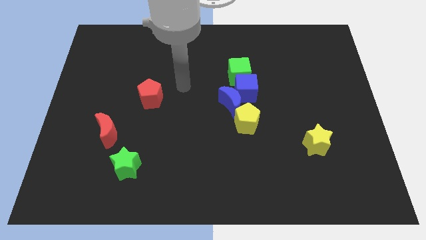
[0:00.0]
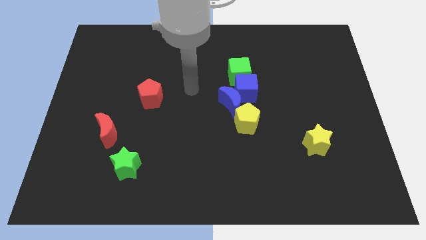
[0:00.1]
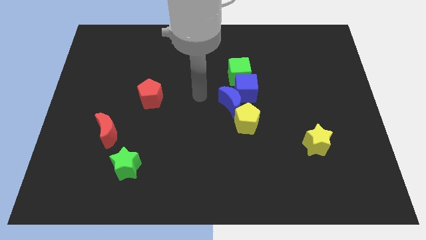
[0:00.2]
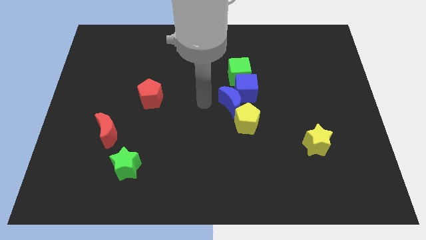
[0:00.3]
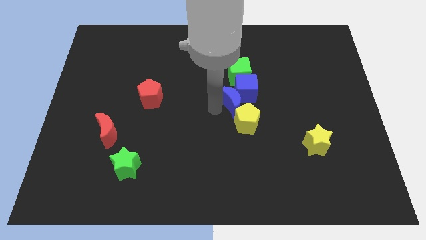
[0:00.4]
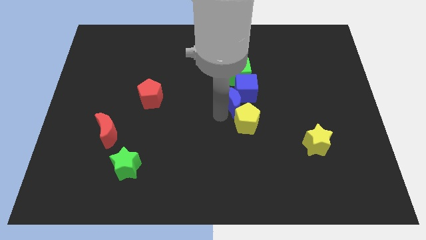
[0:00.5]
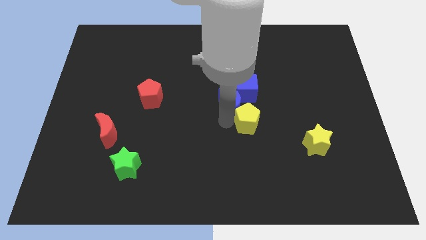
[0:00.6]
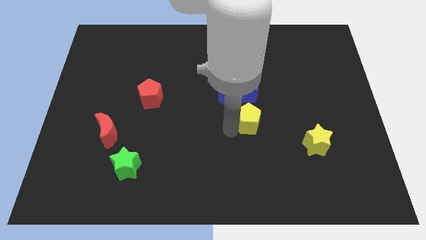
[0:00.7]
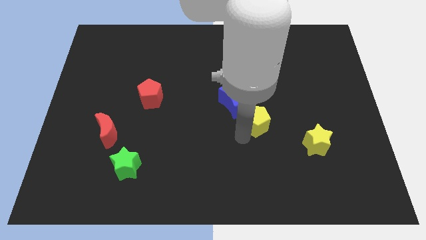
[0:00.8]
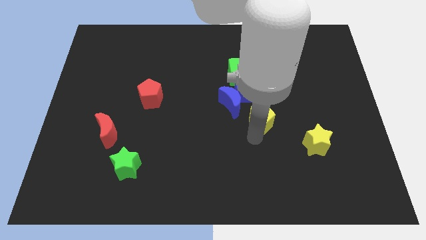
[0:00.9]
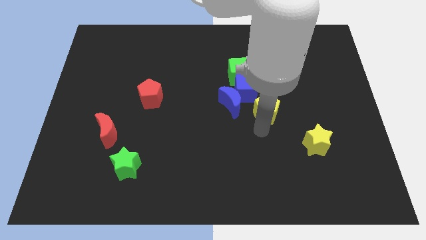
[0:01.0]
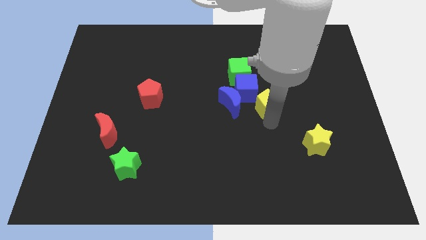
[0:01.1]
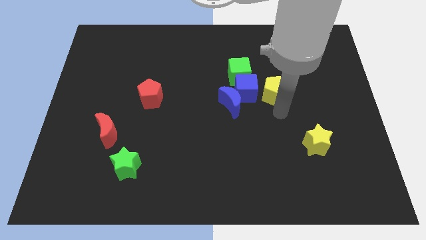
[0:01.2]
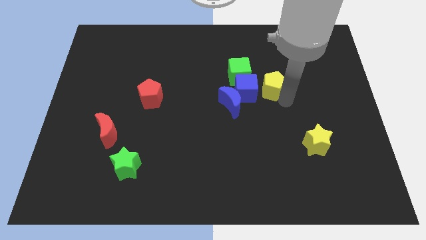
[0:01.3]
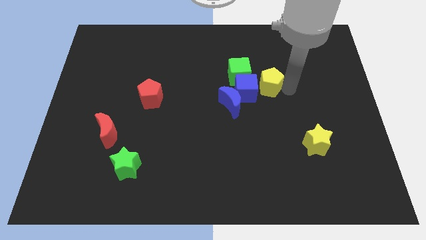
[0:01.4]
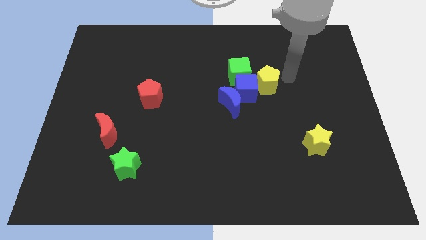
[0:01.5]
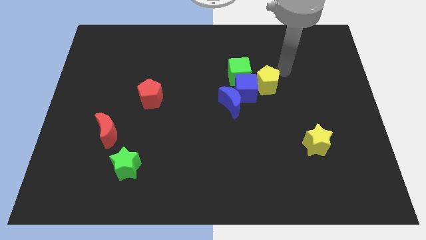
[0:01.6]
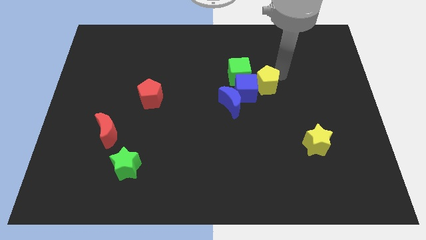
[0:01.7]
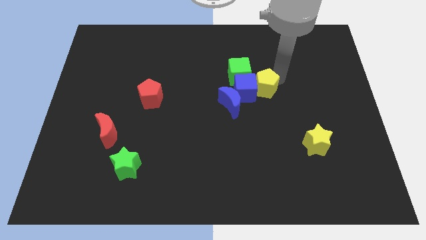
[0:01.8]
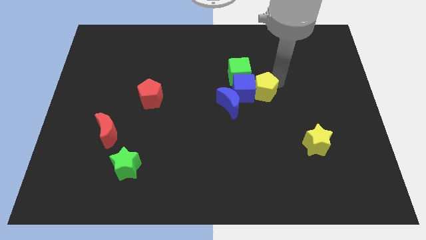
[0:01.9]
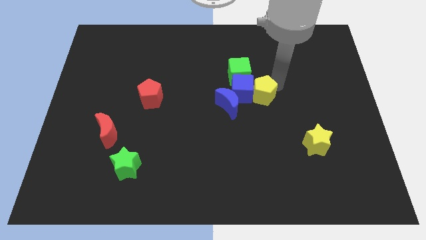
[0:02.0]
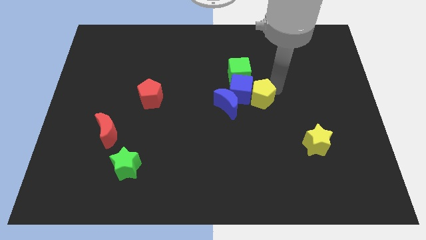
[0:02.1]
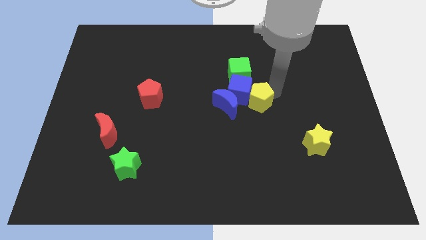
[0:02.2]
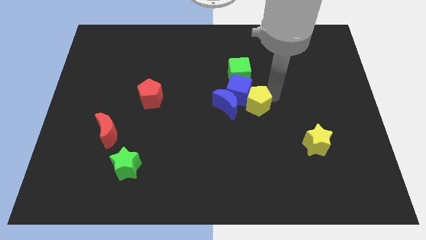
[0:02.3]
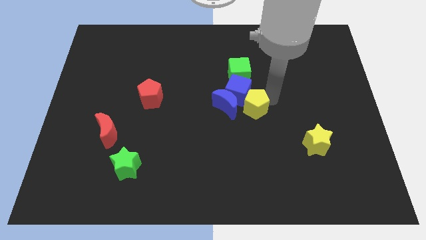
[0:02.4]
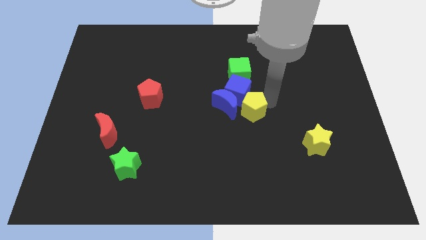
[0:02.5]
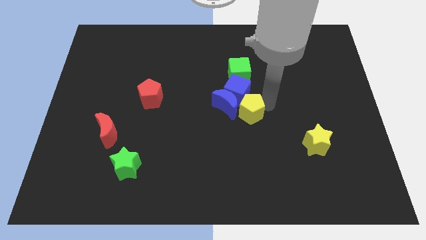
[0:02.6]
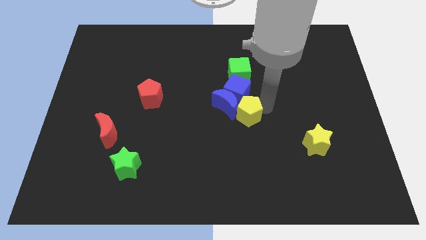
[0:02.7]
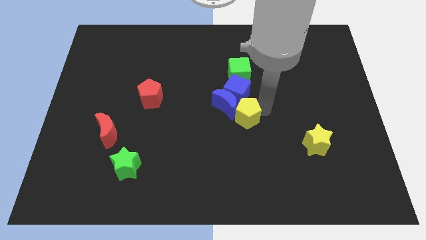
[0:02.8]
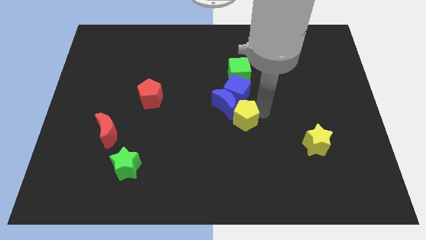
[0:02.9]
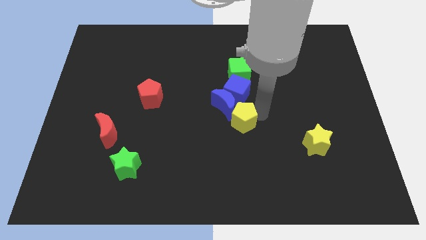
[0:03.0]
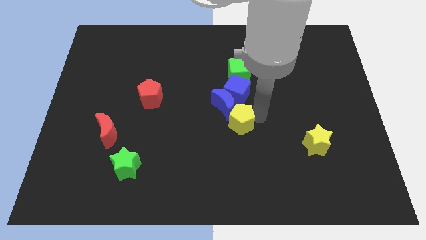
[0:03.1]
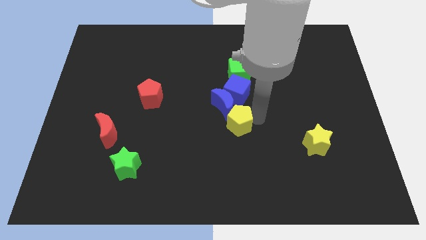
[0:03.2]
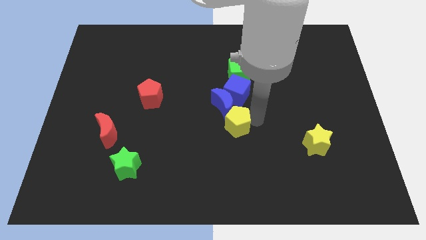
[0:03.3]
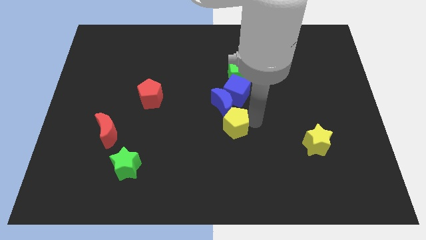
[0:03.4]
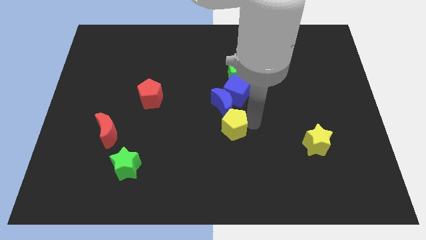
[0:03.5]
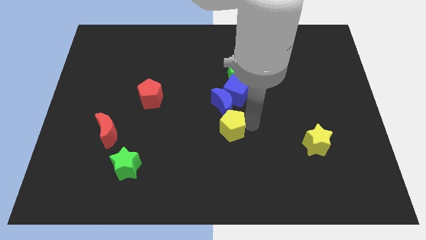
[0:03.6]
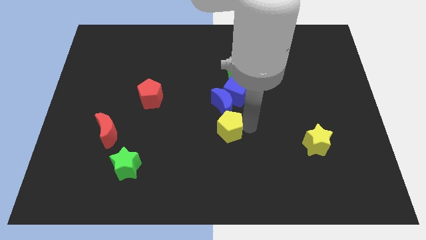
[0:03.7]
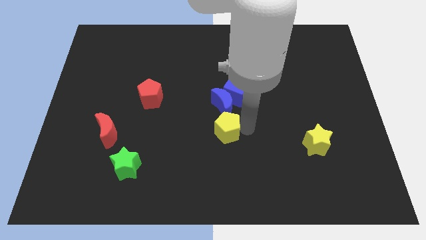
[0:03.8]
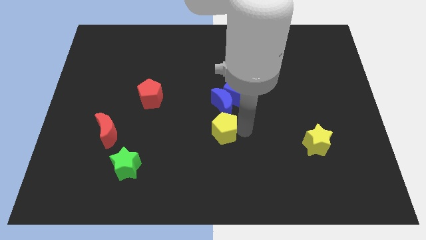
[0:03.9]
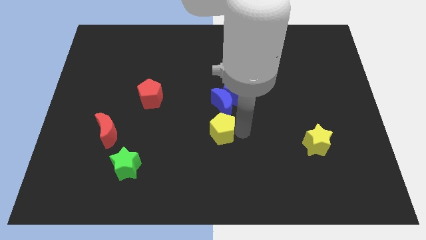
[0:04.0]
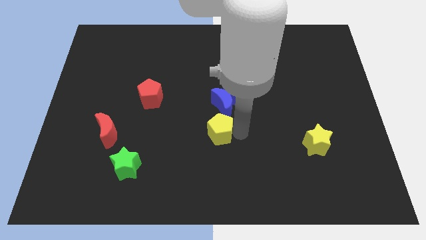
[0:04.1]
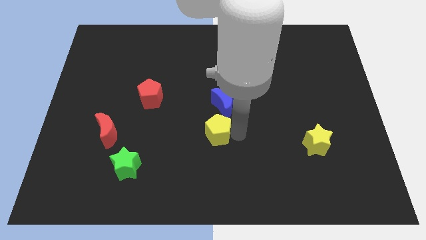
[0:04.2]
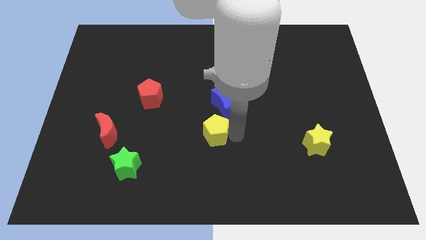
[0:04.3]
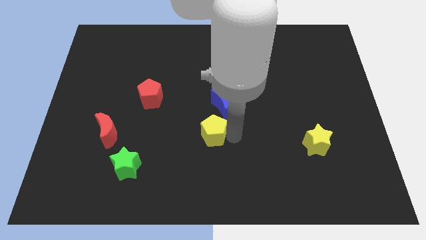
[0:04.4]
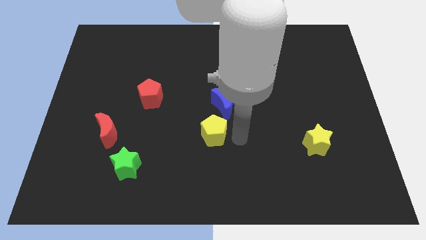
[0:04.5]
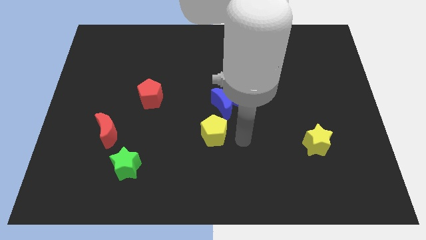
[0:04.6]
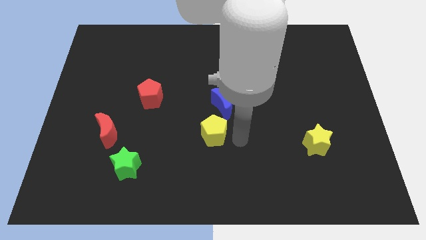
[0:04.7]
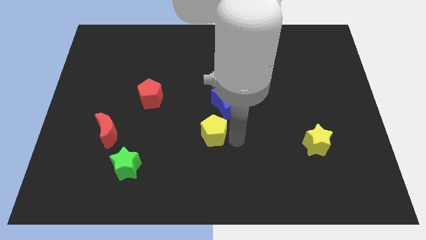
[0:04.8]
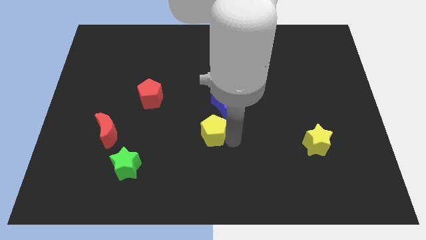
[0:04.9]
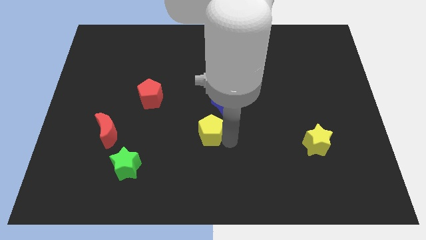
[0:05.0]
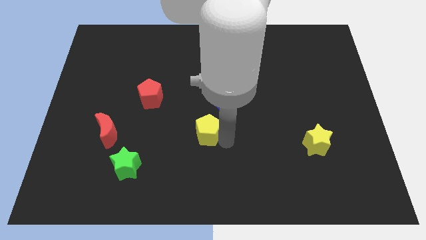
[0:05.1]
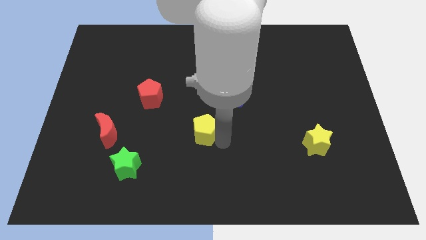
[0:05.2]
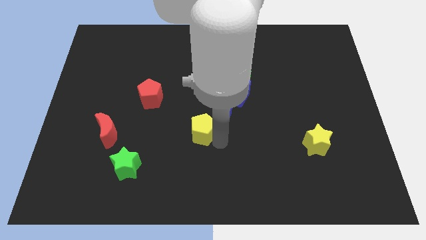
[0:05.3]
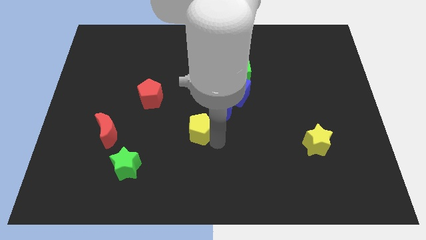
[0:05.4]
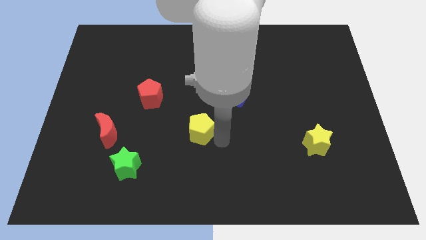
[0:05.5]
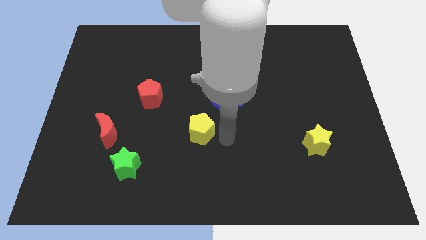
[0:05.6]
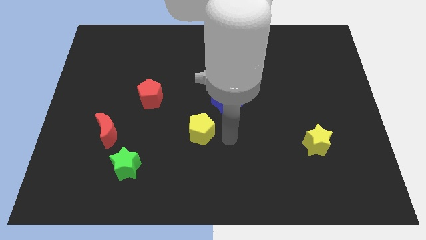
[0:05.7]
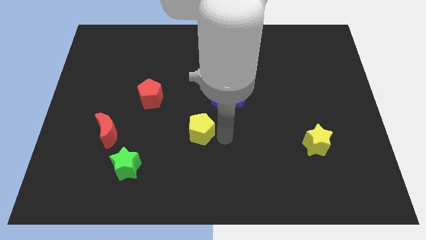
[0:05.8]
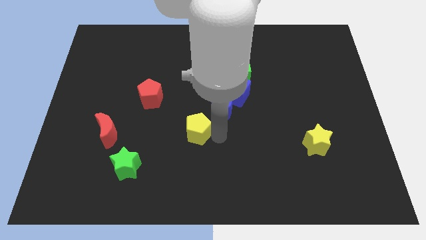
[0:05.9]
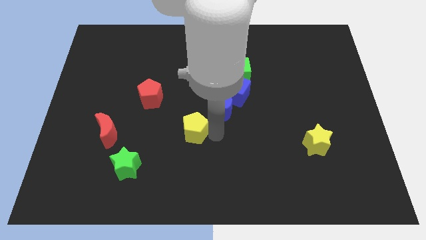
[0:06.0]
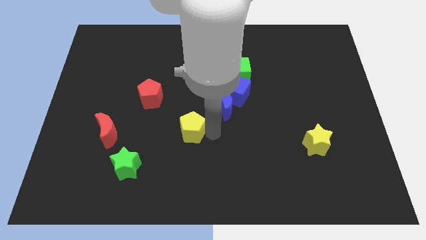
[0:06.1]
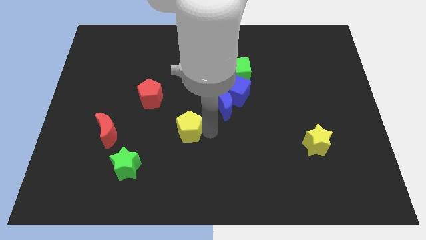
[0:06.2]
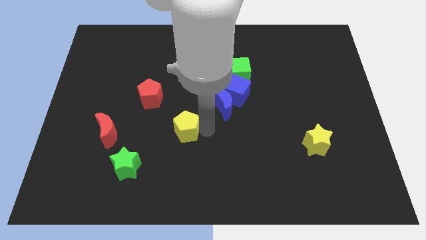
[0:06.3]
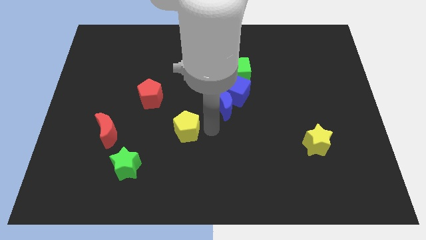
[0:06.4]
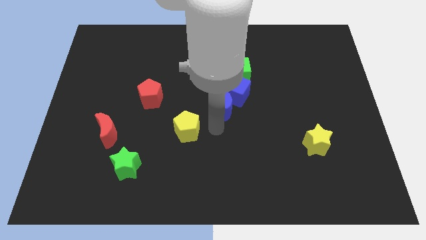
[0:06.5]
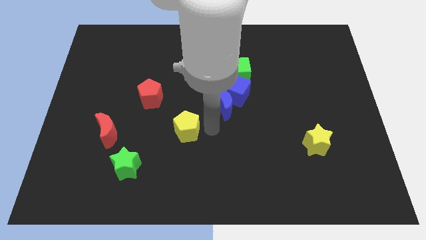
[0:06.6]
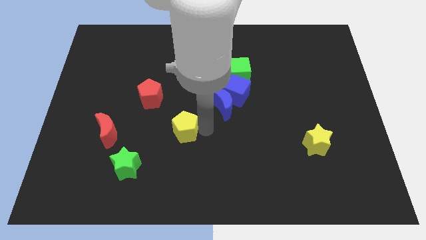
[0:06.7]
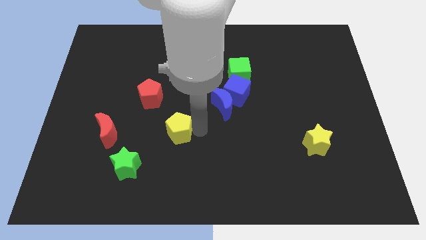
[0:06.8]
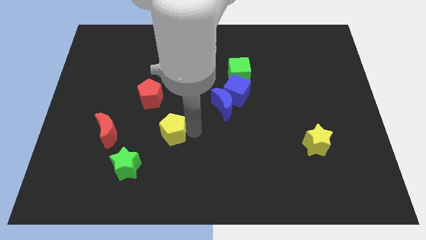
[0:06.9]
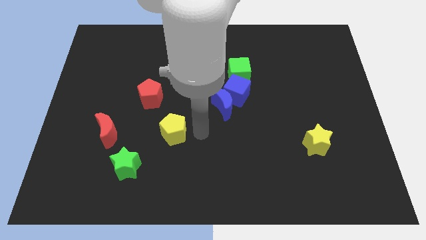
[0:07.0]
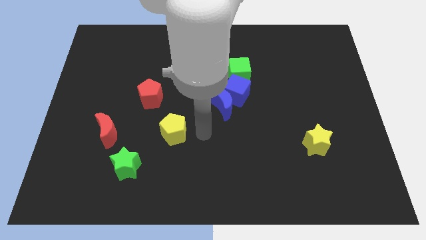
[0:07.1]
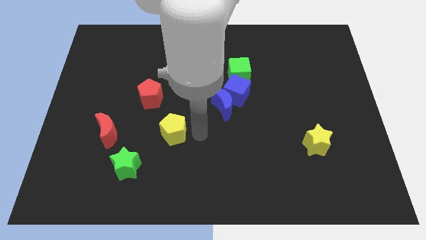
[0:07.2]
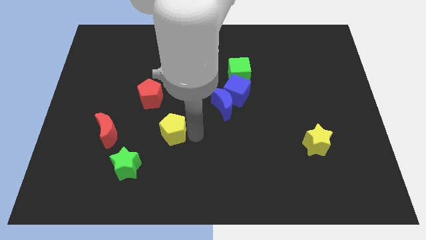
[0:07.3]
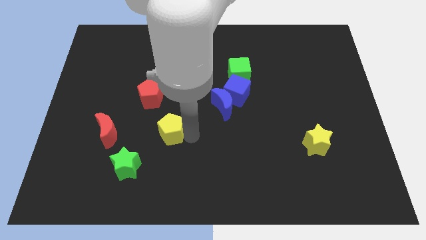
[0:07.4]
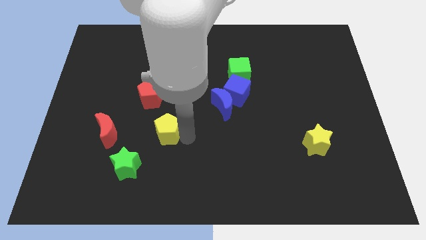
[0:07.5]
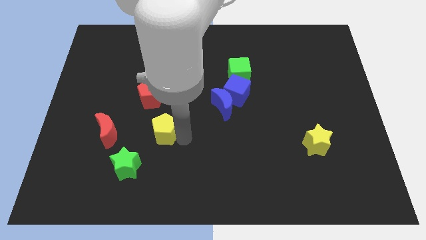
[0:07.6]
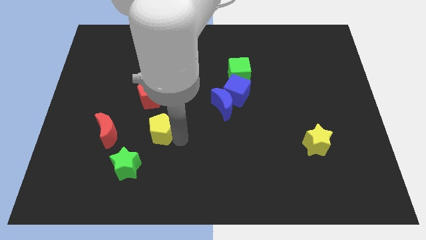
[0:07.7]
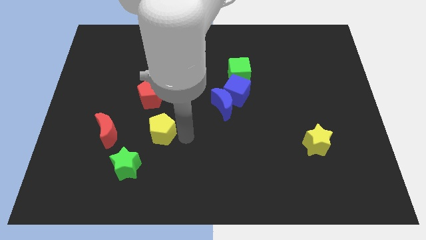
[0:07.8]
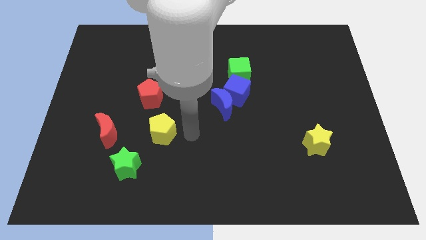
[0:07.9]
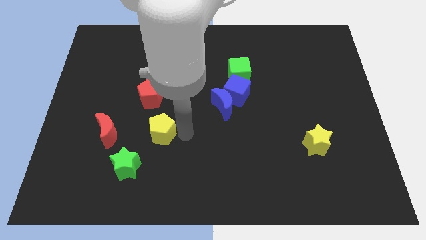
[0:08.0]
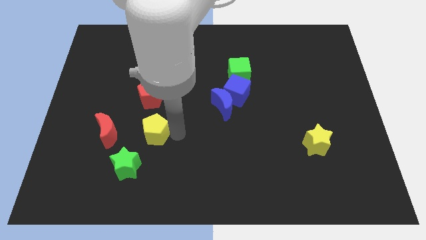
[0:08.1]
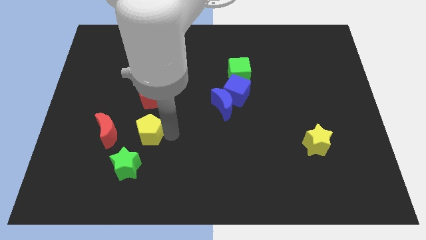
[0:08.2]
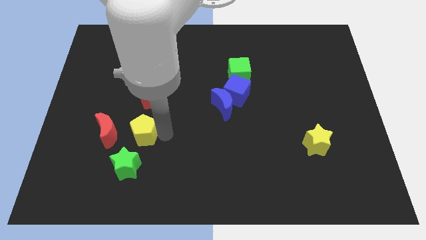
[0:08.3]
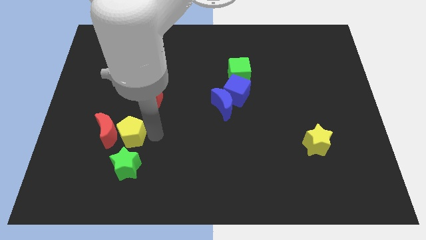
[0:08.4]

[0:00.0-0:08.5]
put the yellow pentagon to the red moon
